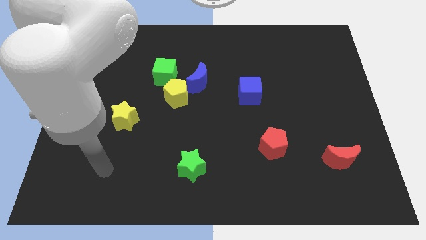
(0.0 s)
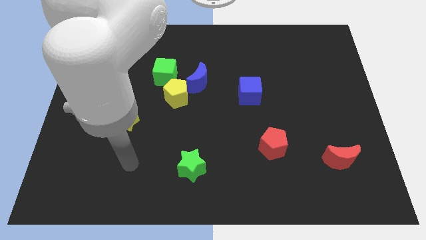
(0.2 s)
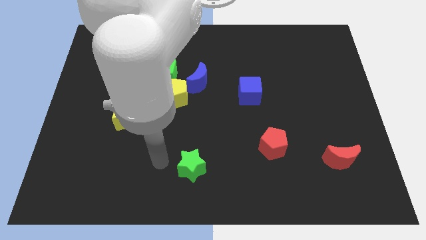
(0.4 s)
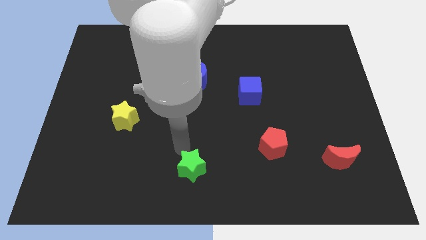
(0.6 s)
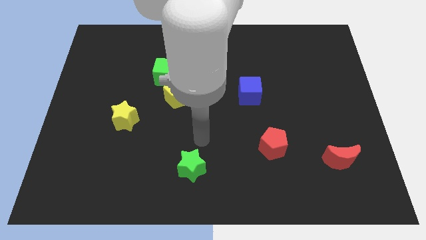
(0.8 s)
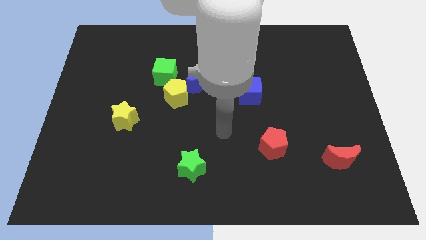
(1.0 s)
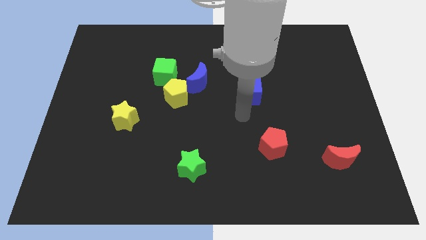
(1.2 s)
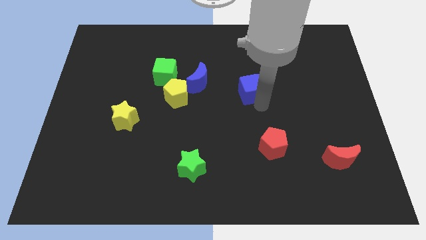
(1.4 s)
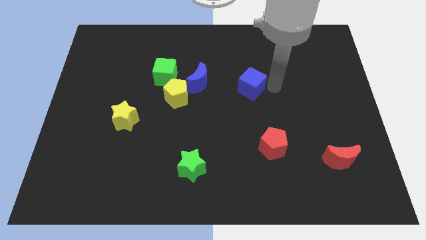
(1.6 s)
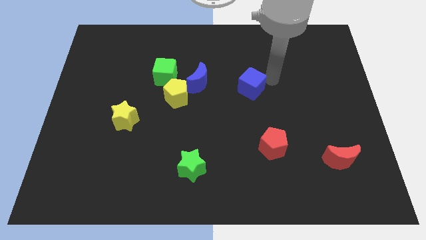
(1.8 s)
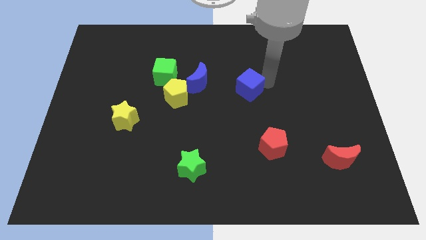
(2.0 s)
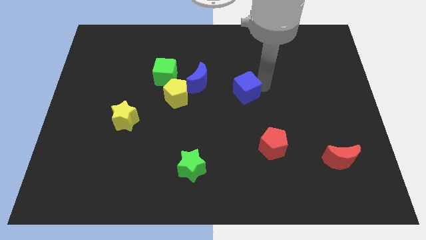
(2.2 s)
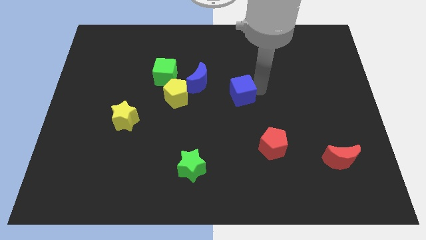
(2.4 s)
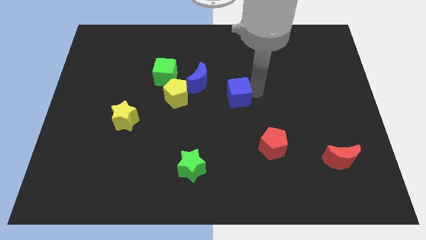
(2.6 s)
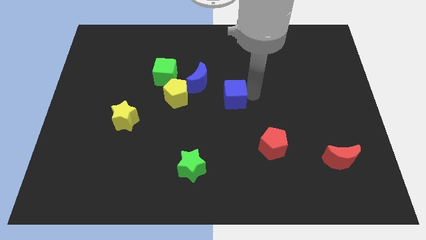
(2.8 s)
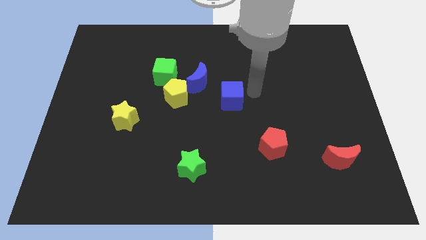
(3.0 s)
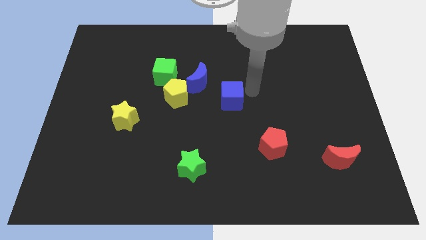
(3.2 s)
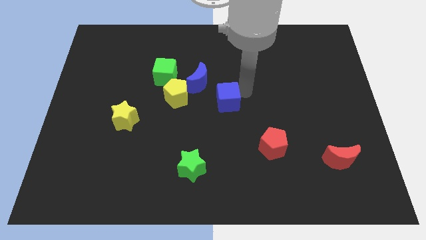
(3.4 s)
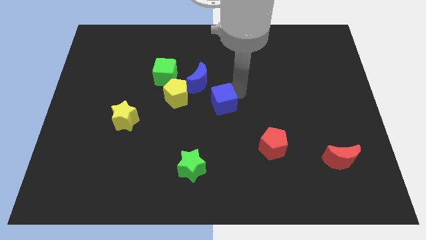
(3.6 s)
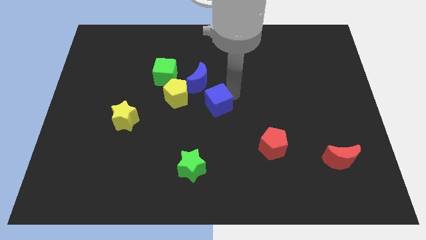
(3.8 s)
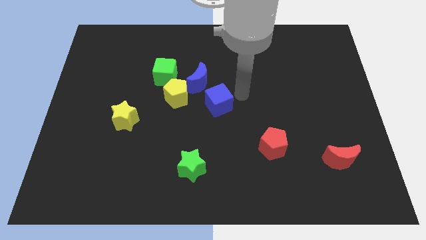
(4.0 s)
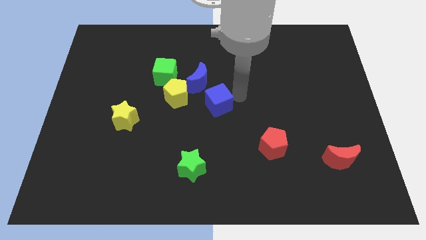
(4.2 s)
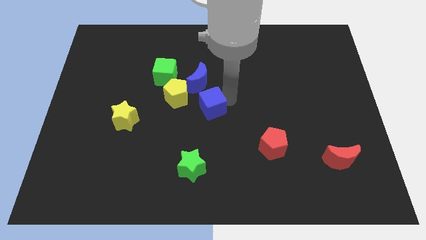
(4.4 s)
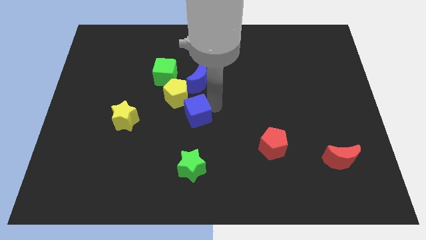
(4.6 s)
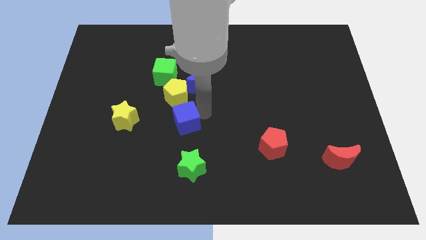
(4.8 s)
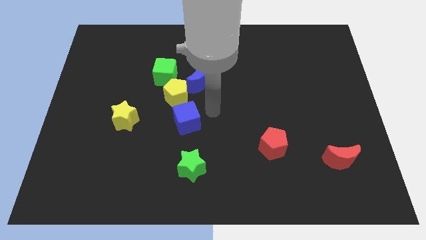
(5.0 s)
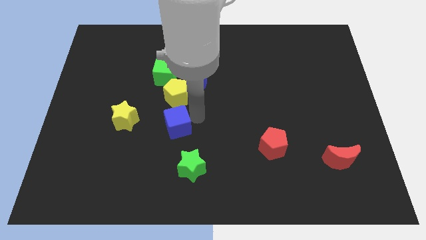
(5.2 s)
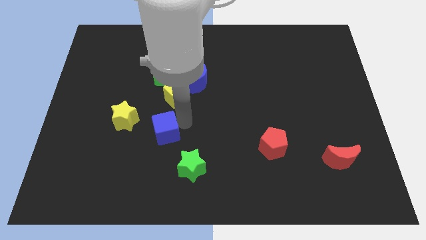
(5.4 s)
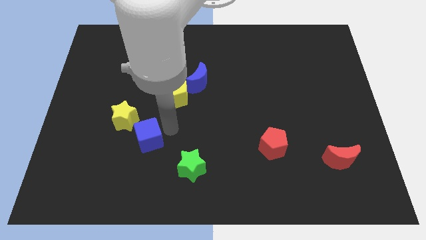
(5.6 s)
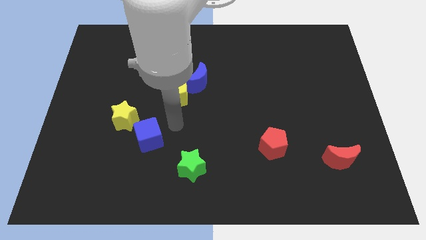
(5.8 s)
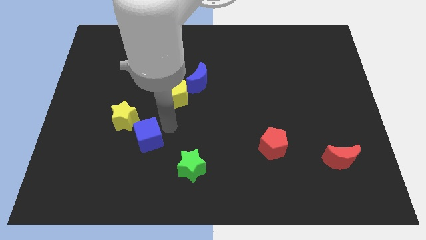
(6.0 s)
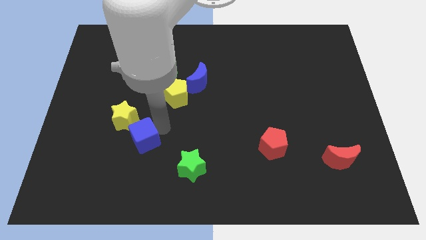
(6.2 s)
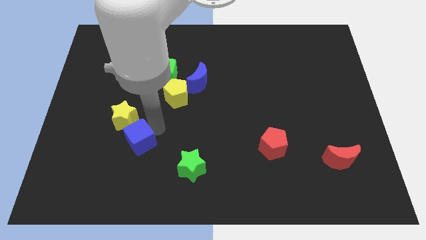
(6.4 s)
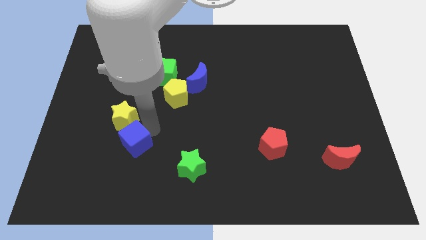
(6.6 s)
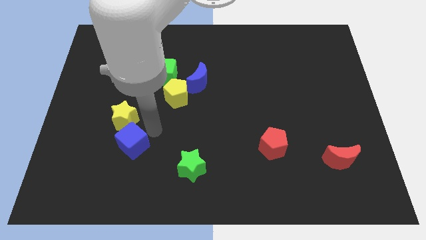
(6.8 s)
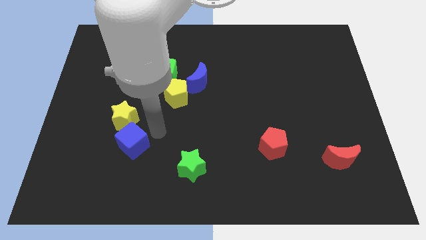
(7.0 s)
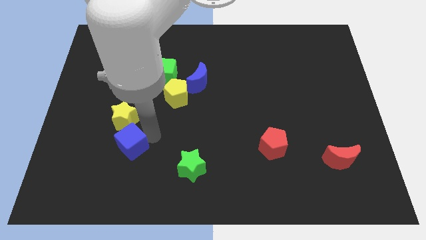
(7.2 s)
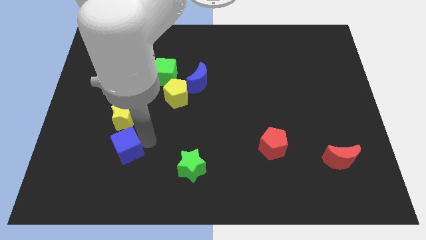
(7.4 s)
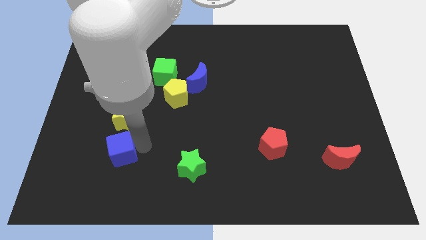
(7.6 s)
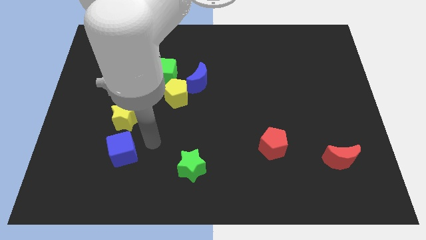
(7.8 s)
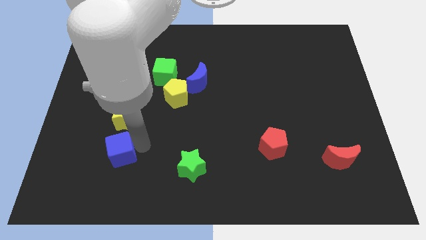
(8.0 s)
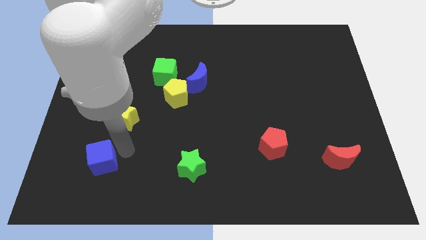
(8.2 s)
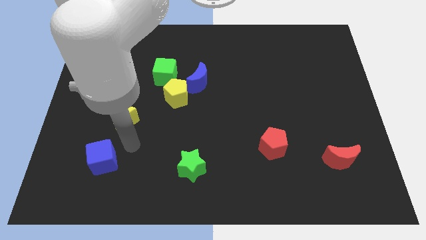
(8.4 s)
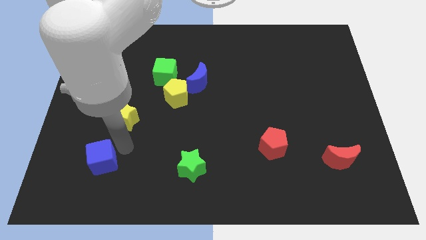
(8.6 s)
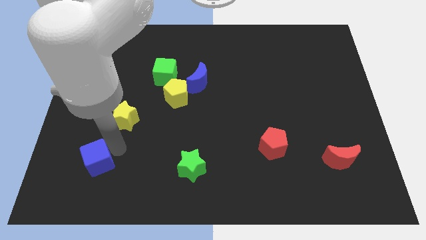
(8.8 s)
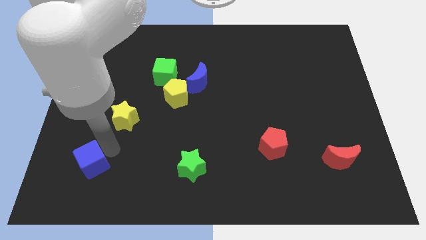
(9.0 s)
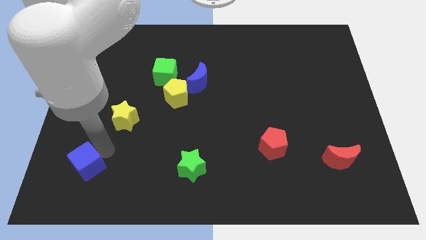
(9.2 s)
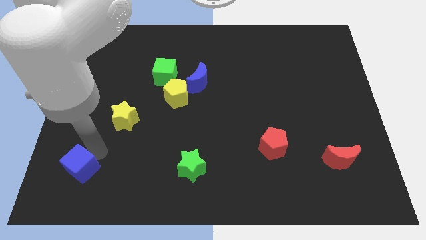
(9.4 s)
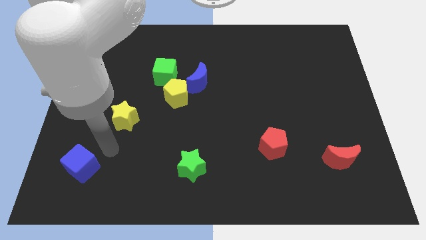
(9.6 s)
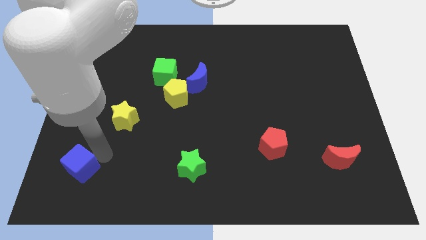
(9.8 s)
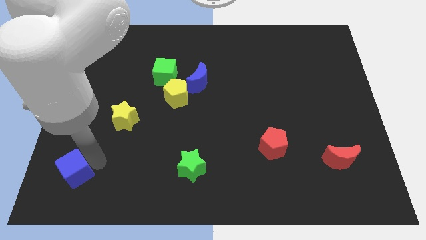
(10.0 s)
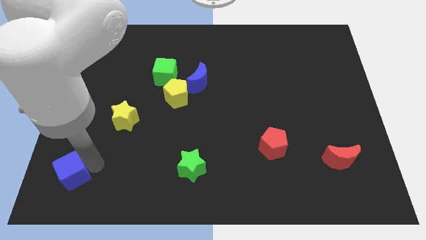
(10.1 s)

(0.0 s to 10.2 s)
put the blue cube to the bottom left of the board

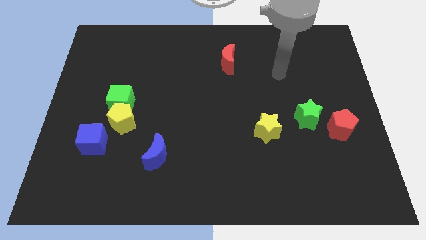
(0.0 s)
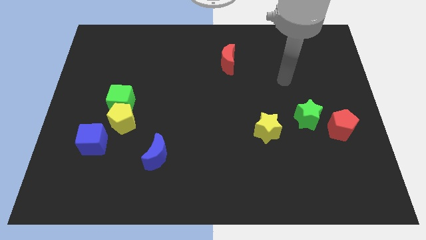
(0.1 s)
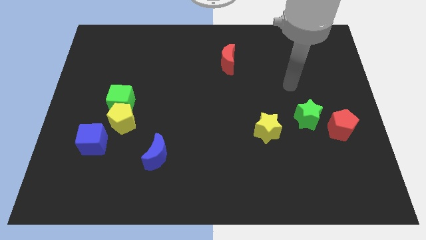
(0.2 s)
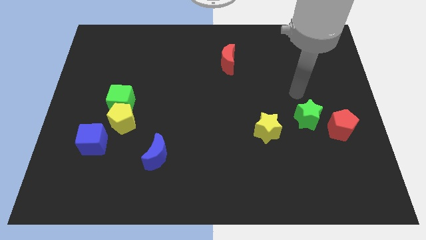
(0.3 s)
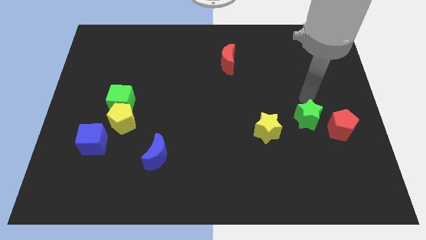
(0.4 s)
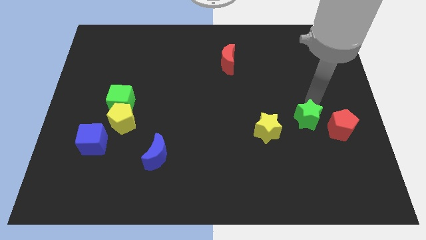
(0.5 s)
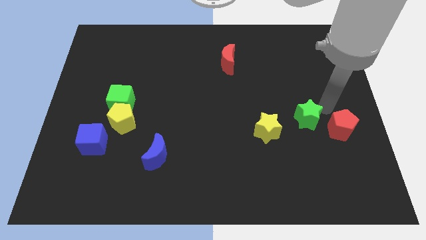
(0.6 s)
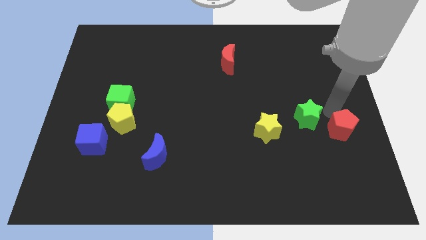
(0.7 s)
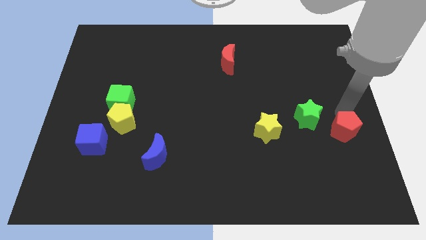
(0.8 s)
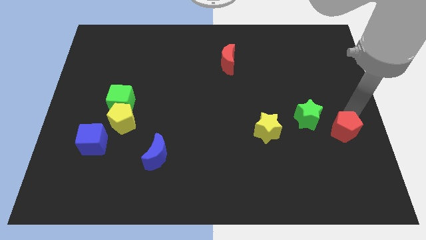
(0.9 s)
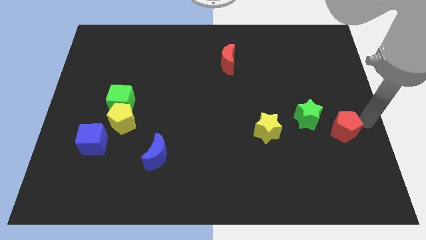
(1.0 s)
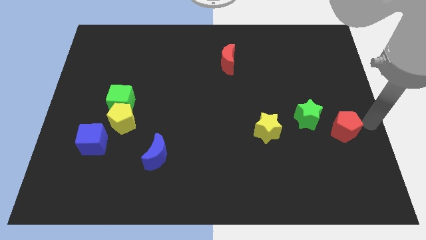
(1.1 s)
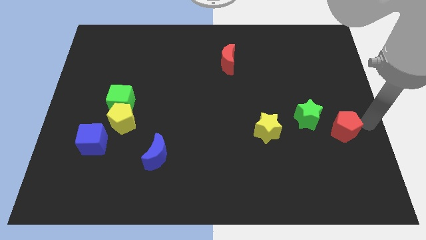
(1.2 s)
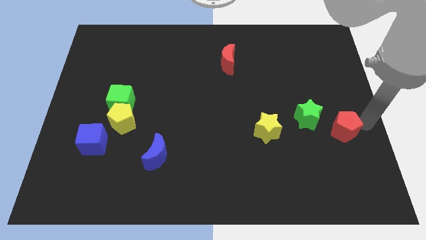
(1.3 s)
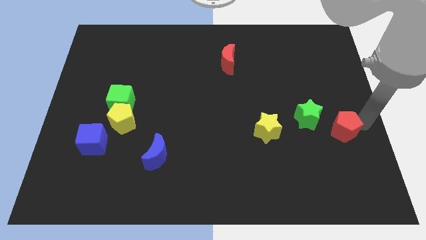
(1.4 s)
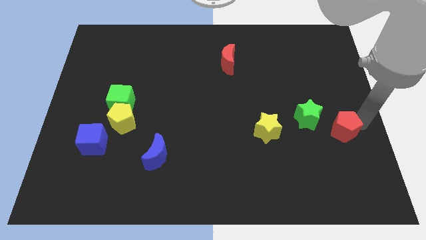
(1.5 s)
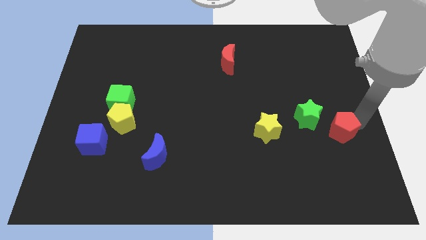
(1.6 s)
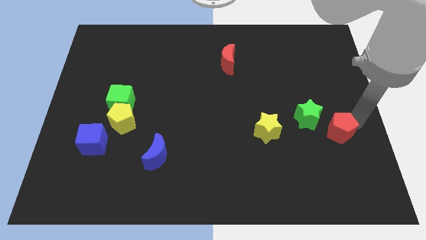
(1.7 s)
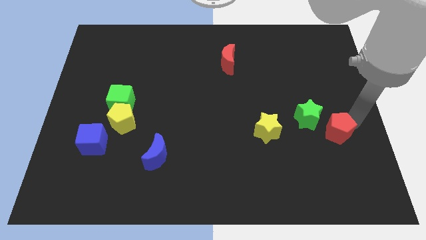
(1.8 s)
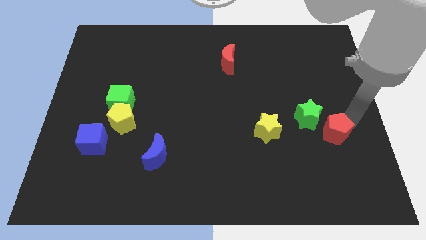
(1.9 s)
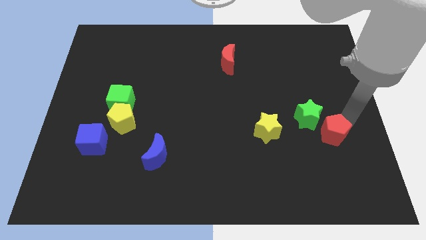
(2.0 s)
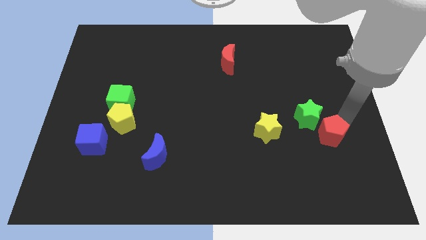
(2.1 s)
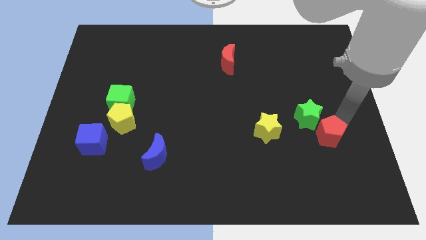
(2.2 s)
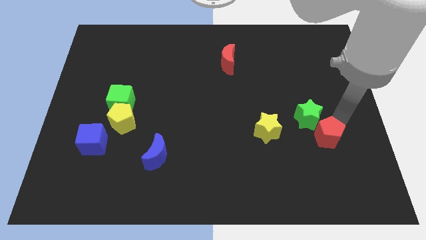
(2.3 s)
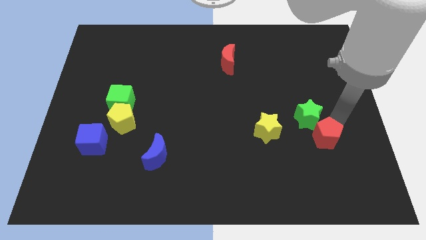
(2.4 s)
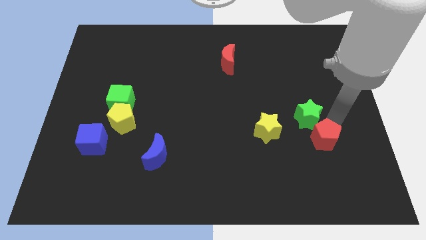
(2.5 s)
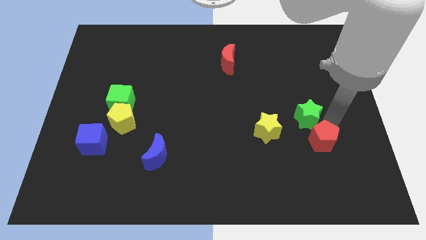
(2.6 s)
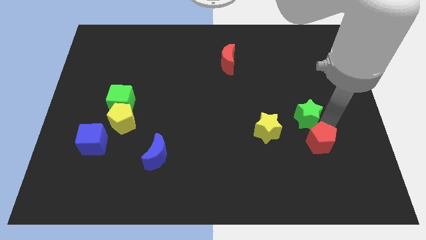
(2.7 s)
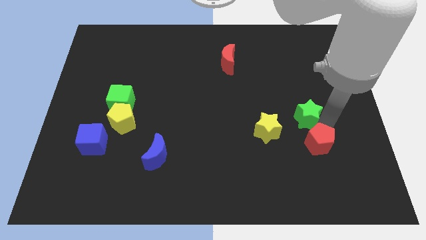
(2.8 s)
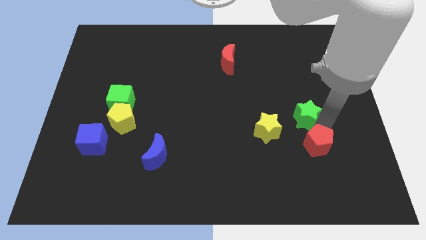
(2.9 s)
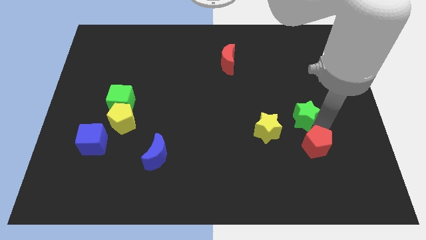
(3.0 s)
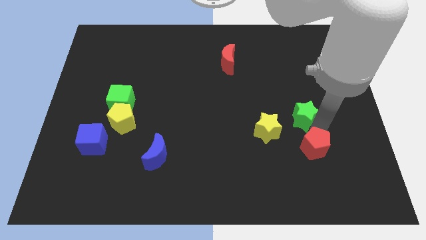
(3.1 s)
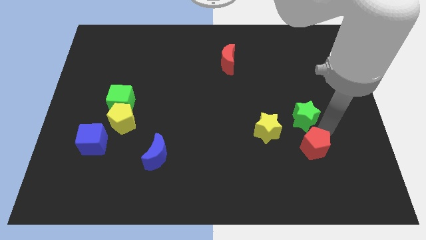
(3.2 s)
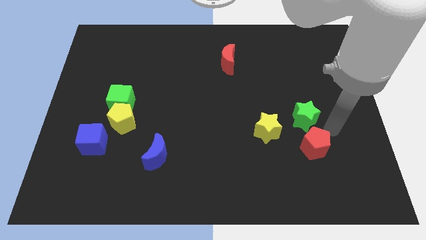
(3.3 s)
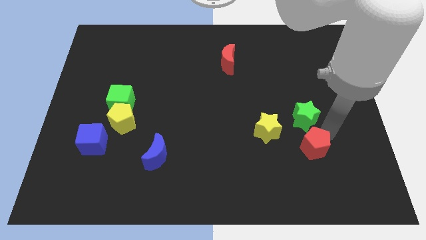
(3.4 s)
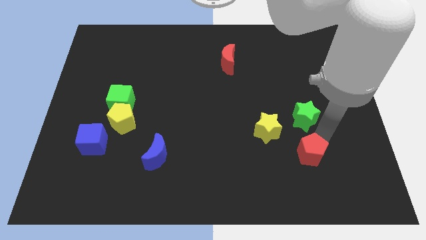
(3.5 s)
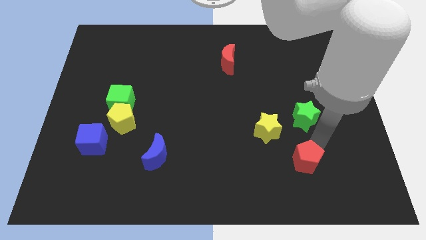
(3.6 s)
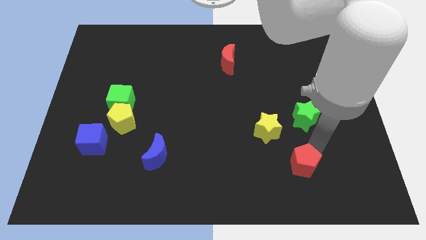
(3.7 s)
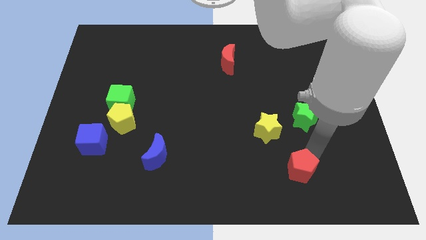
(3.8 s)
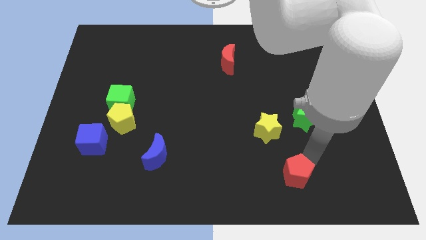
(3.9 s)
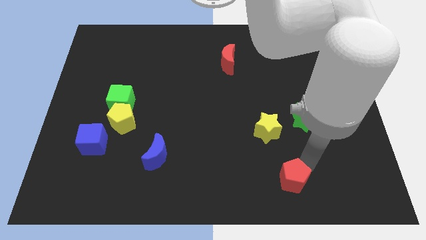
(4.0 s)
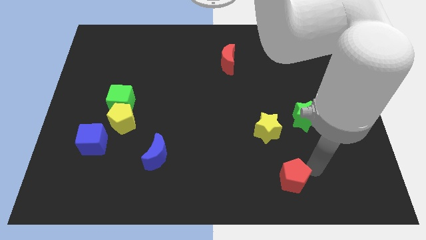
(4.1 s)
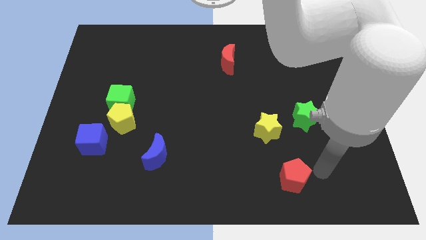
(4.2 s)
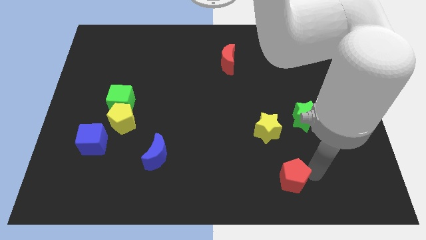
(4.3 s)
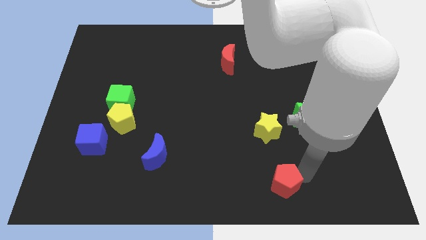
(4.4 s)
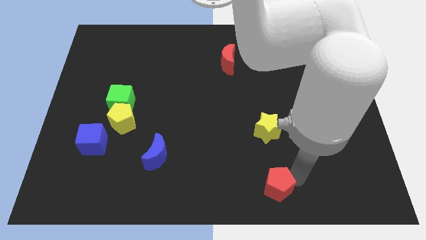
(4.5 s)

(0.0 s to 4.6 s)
move the red pentagon to the bottom side
